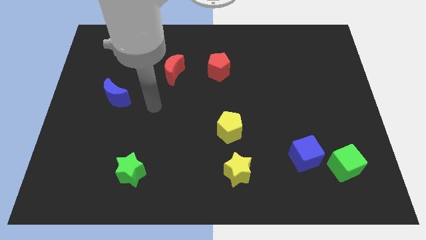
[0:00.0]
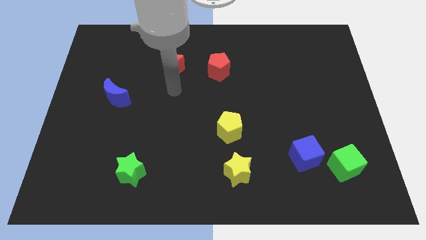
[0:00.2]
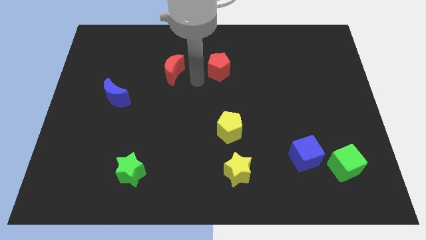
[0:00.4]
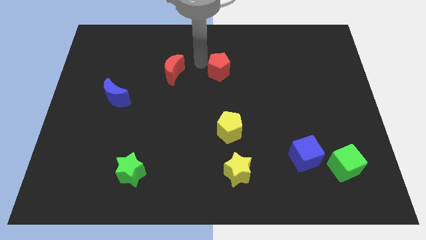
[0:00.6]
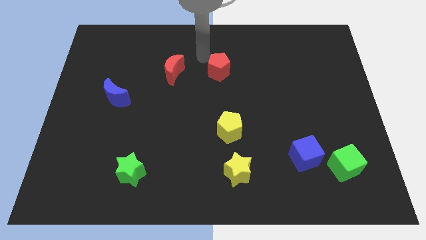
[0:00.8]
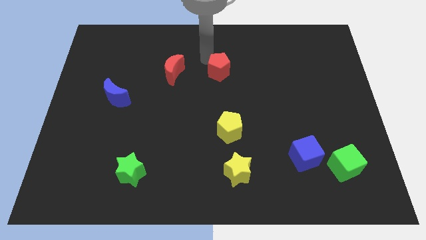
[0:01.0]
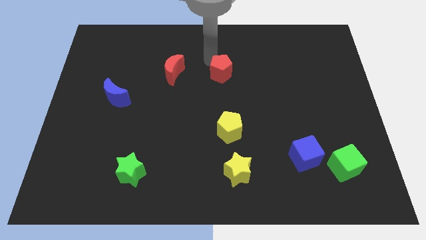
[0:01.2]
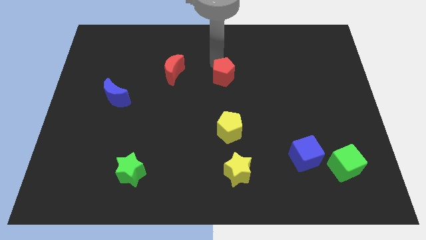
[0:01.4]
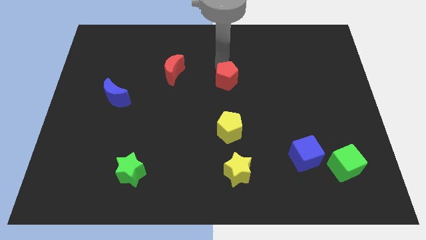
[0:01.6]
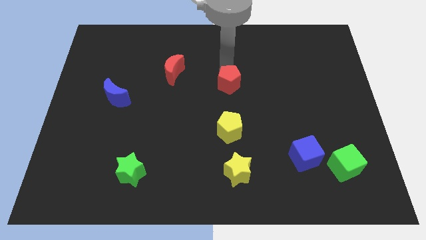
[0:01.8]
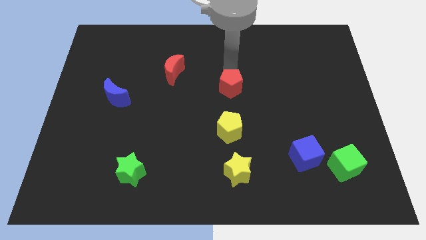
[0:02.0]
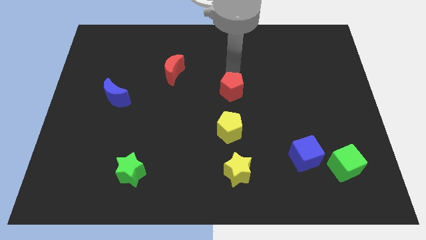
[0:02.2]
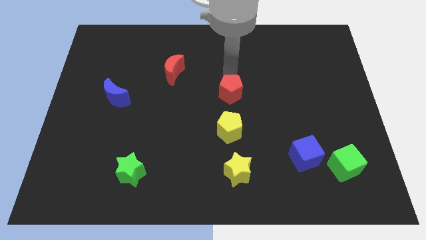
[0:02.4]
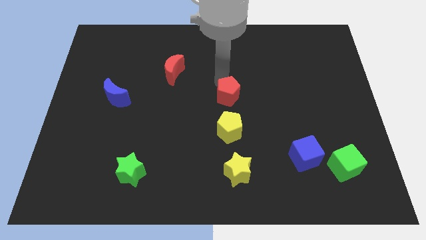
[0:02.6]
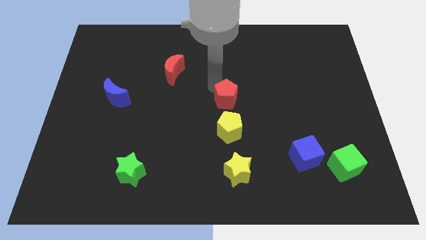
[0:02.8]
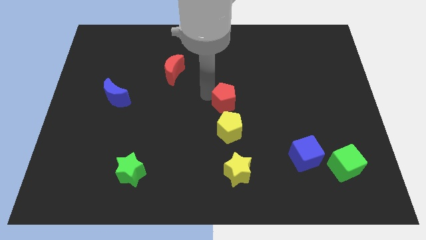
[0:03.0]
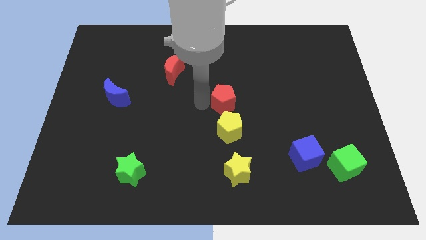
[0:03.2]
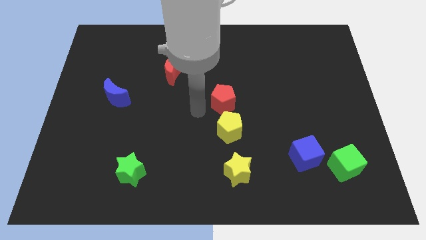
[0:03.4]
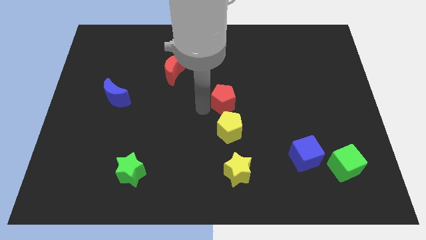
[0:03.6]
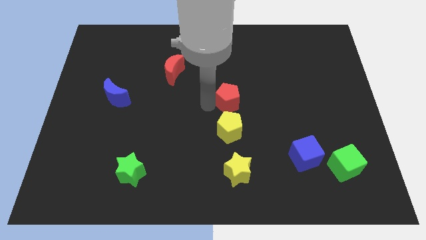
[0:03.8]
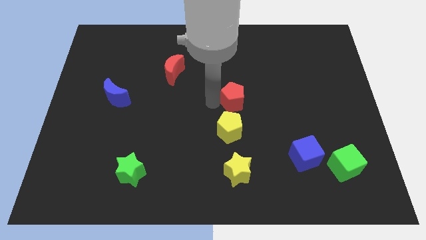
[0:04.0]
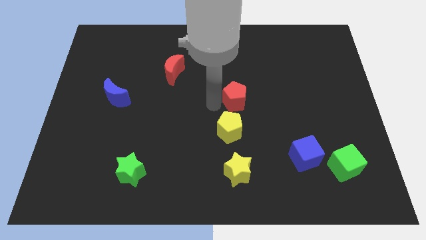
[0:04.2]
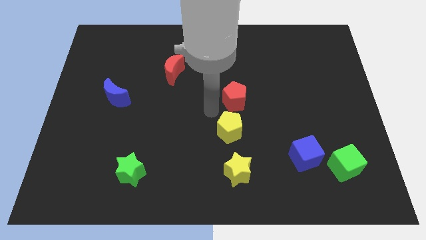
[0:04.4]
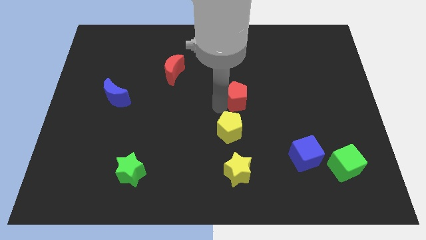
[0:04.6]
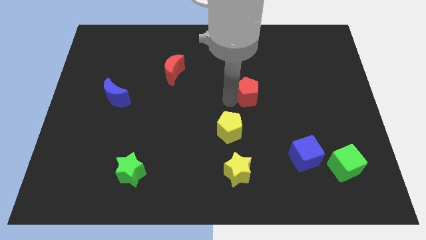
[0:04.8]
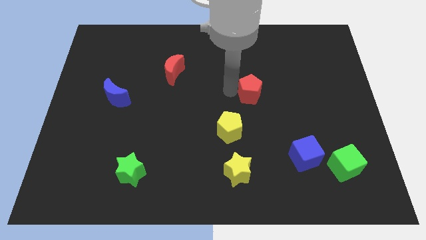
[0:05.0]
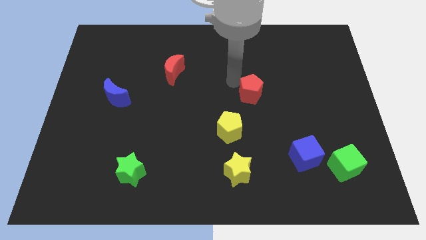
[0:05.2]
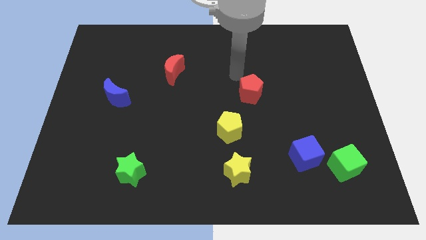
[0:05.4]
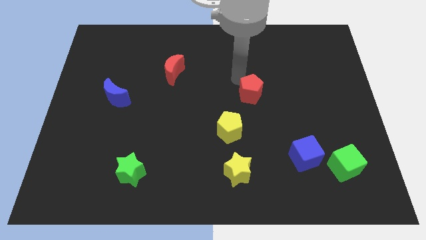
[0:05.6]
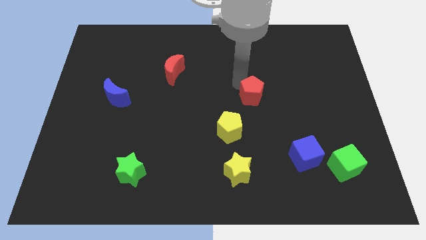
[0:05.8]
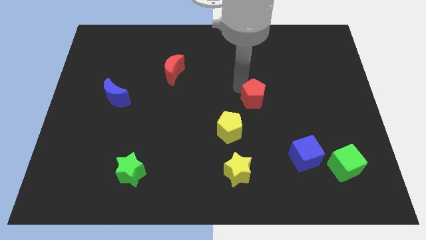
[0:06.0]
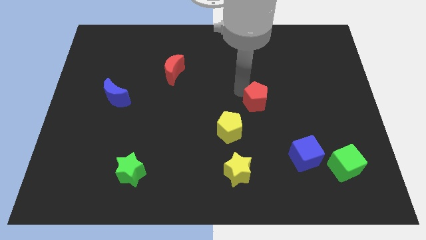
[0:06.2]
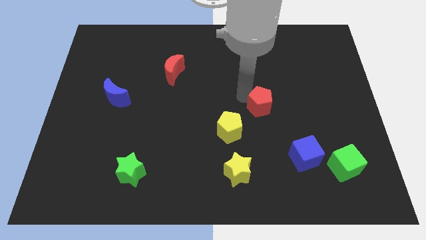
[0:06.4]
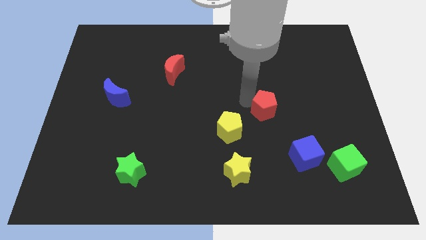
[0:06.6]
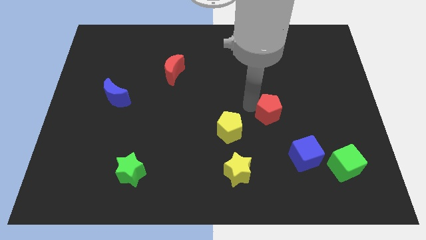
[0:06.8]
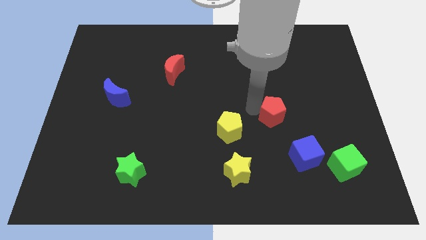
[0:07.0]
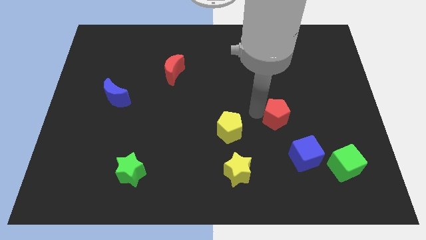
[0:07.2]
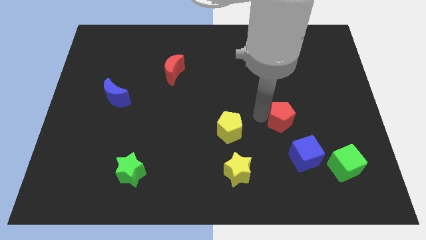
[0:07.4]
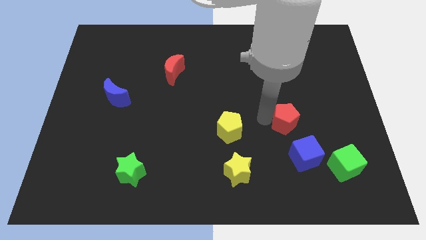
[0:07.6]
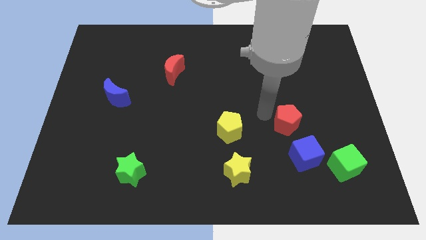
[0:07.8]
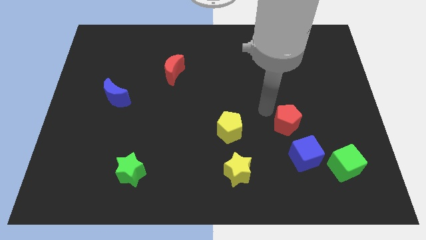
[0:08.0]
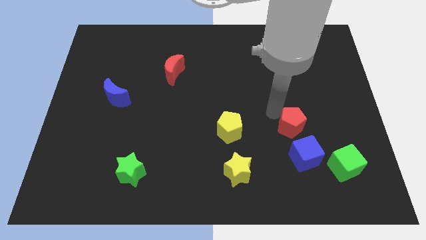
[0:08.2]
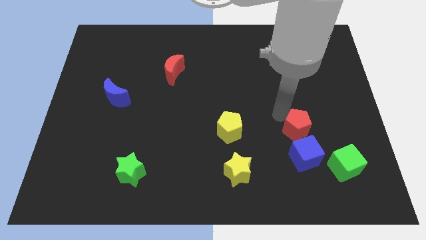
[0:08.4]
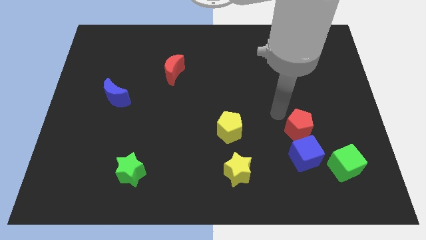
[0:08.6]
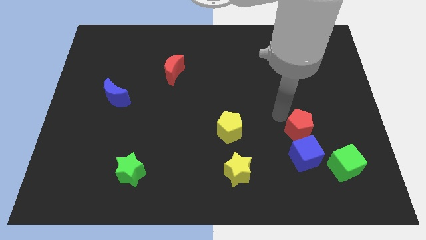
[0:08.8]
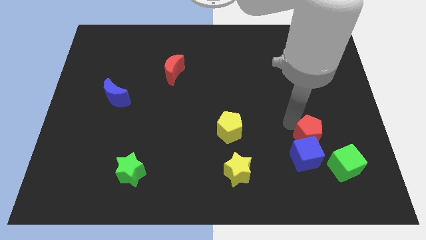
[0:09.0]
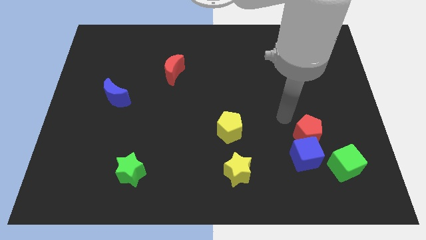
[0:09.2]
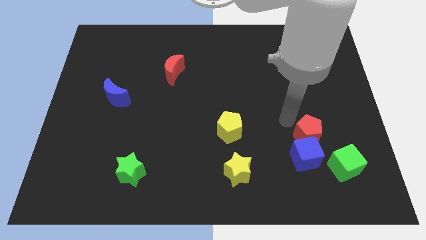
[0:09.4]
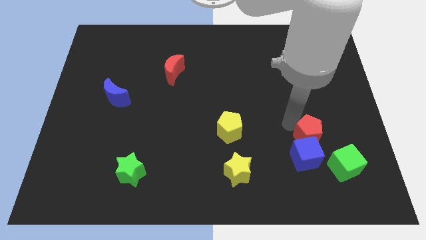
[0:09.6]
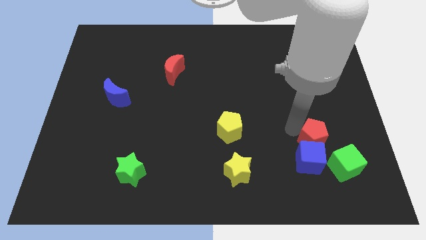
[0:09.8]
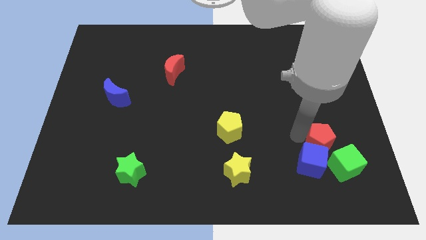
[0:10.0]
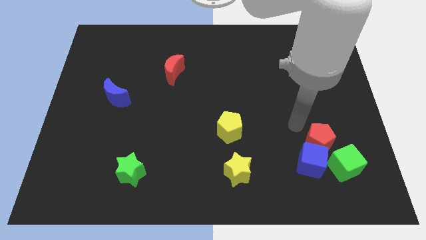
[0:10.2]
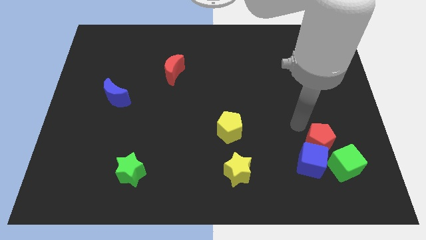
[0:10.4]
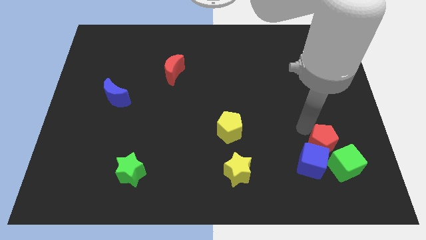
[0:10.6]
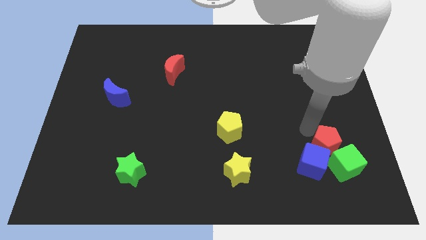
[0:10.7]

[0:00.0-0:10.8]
push the red pentagon to the green cube

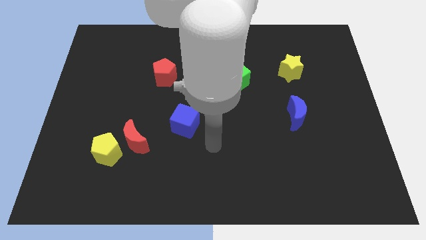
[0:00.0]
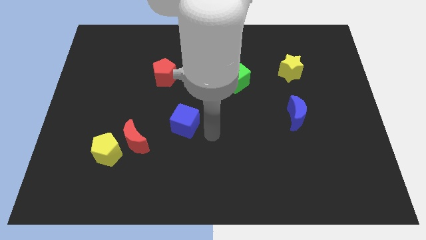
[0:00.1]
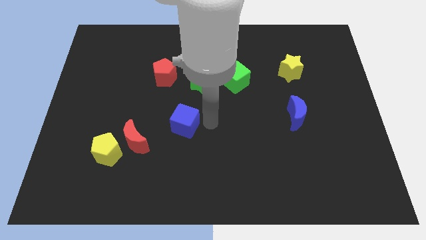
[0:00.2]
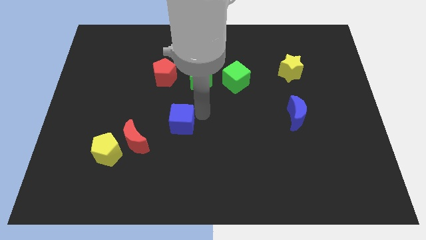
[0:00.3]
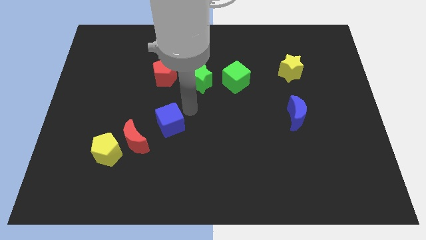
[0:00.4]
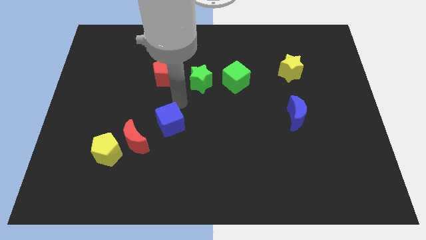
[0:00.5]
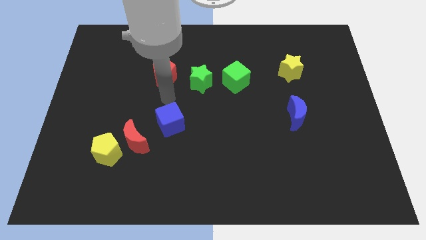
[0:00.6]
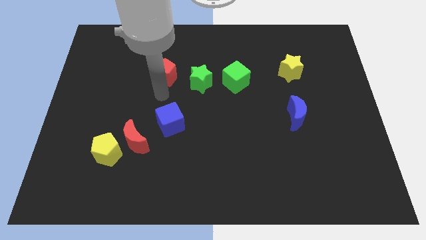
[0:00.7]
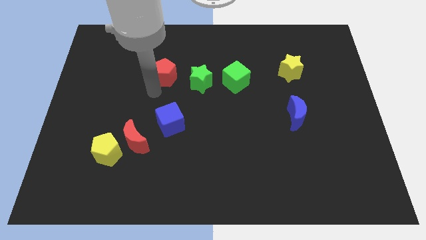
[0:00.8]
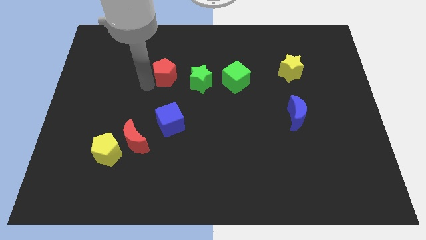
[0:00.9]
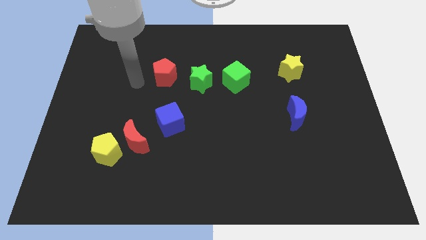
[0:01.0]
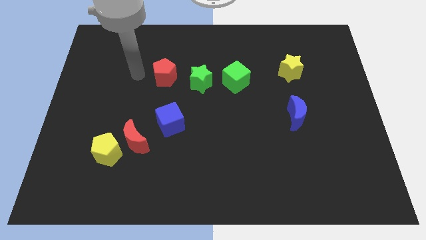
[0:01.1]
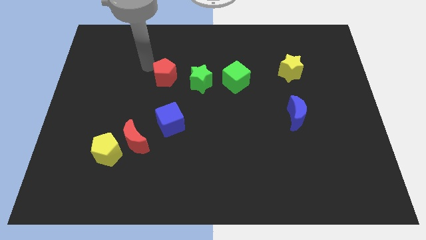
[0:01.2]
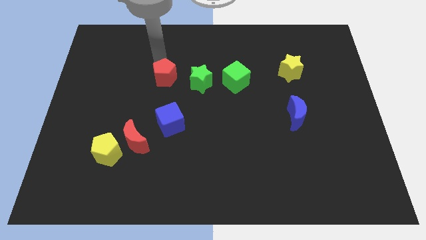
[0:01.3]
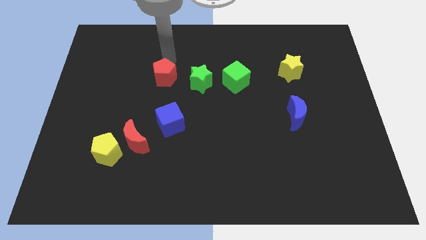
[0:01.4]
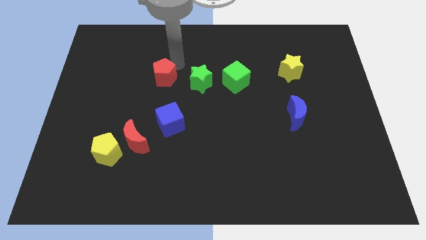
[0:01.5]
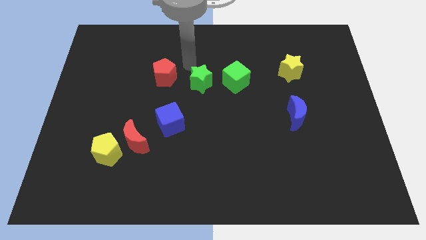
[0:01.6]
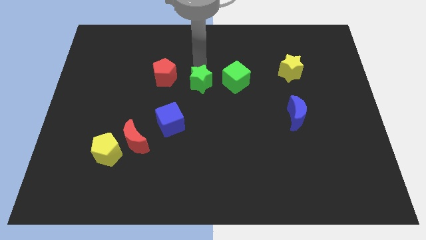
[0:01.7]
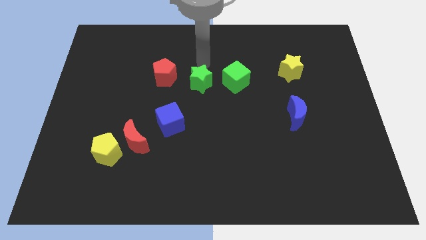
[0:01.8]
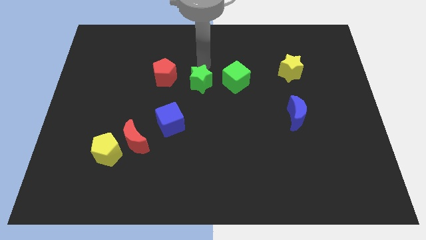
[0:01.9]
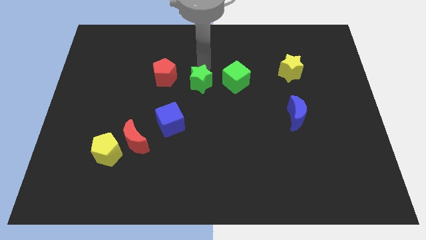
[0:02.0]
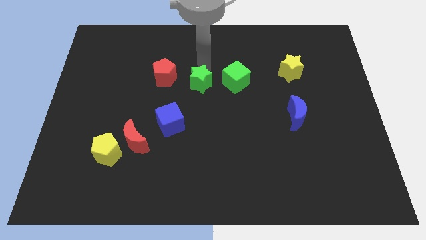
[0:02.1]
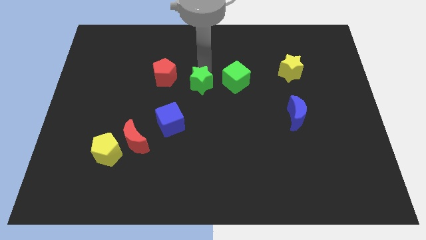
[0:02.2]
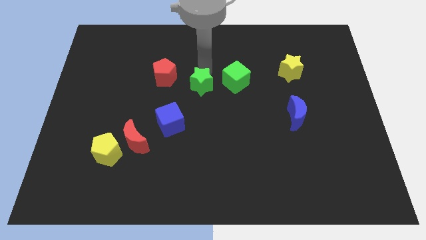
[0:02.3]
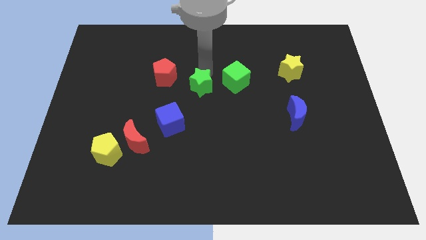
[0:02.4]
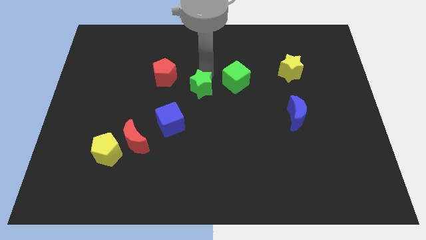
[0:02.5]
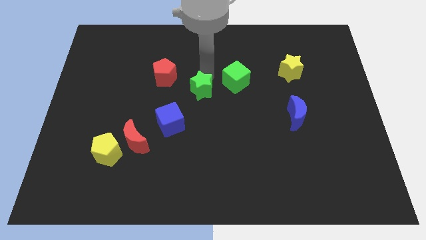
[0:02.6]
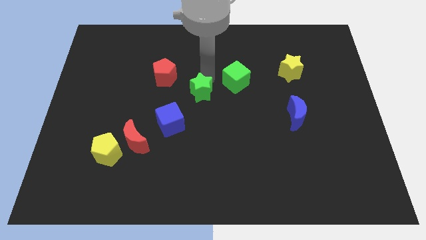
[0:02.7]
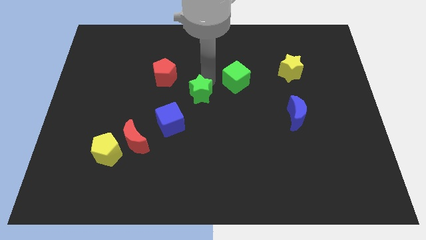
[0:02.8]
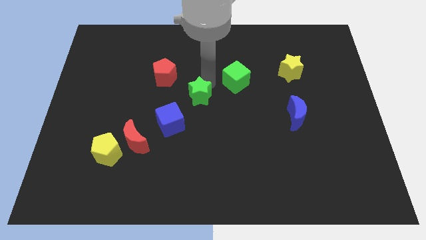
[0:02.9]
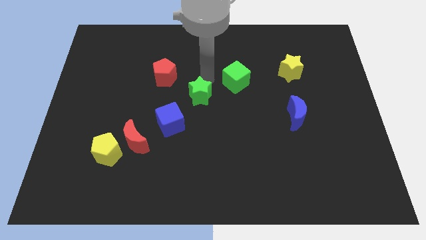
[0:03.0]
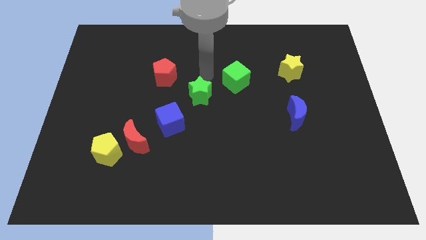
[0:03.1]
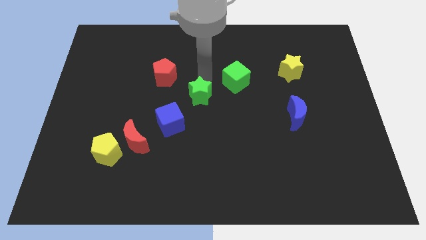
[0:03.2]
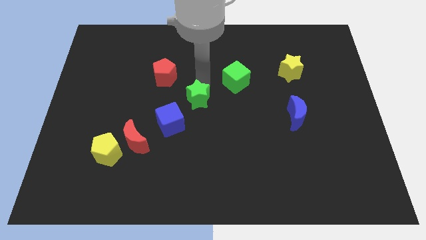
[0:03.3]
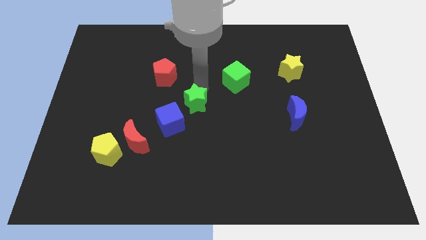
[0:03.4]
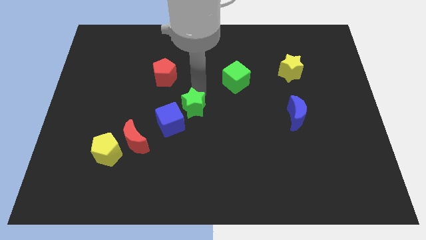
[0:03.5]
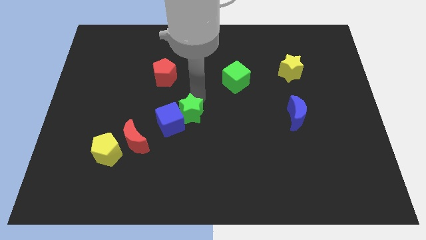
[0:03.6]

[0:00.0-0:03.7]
push the green star next to the blue cube
